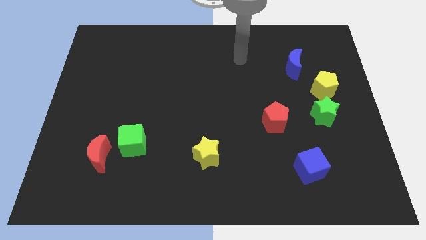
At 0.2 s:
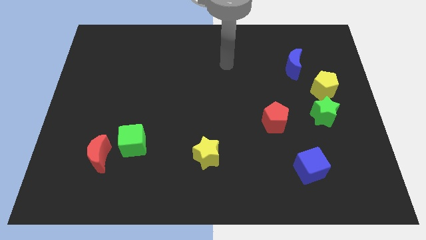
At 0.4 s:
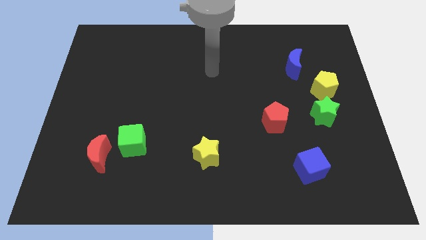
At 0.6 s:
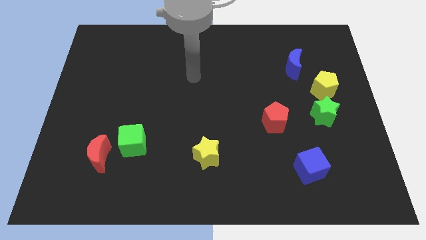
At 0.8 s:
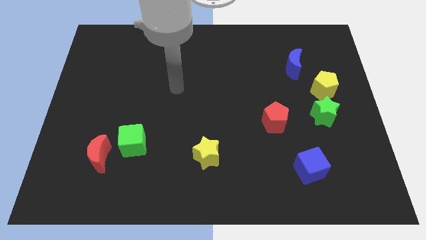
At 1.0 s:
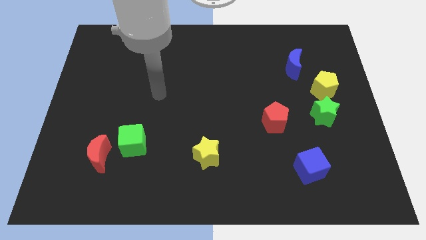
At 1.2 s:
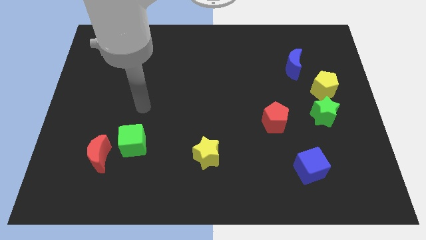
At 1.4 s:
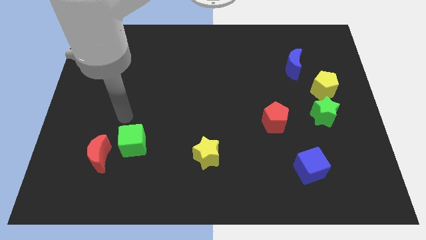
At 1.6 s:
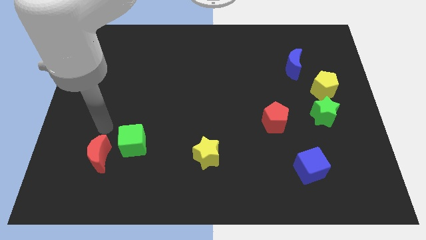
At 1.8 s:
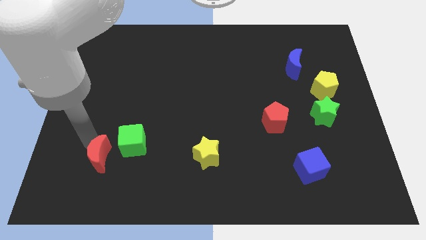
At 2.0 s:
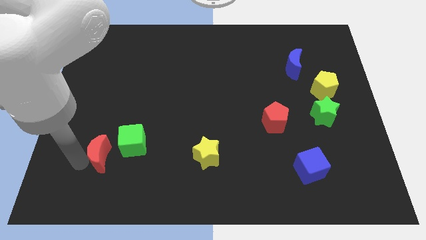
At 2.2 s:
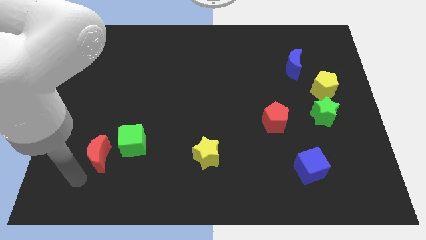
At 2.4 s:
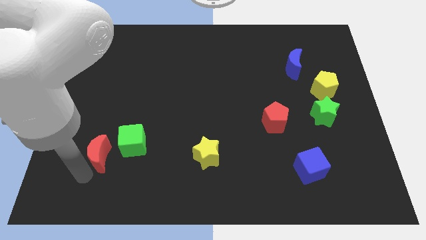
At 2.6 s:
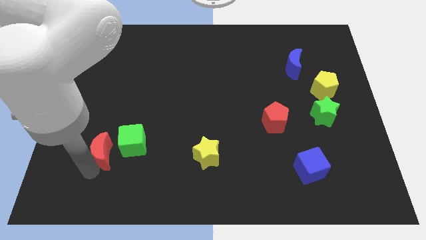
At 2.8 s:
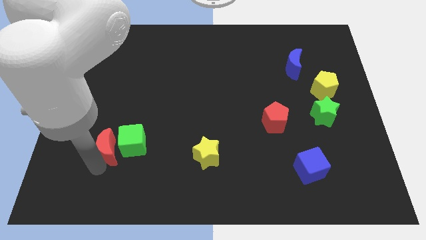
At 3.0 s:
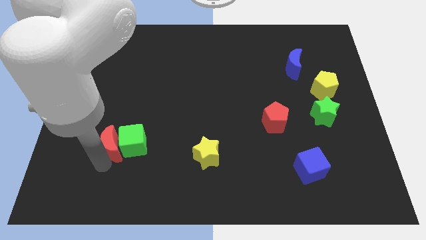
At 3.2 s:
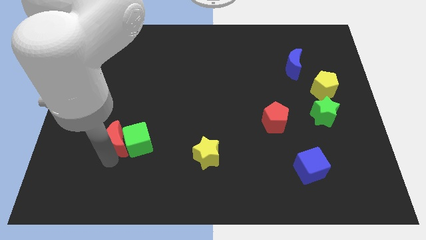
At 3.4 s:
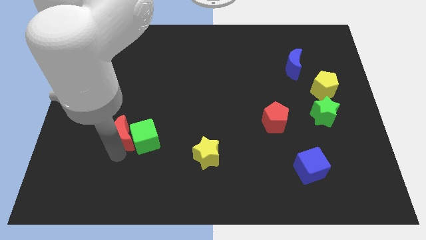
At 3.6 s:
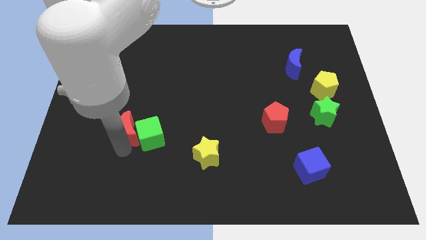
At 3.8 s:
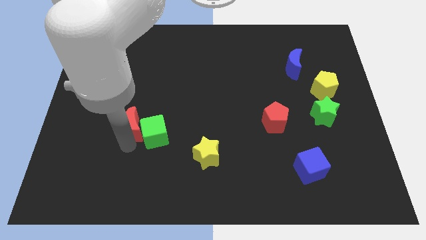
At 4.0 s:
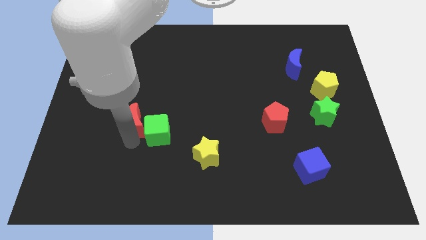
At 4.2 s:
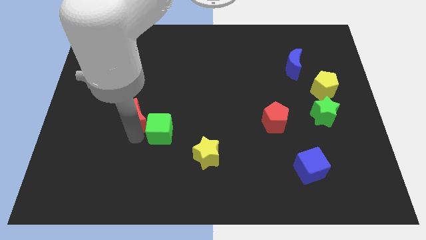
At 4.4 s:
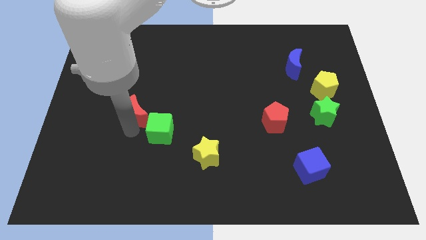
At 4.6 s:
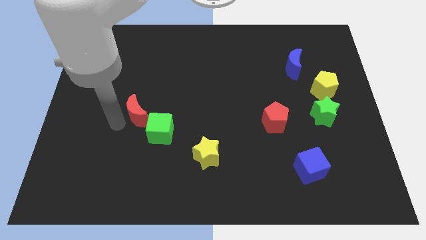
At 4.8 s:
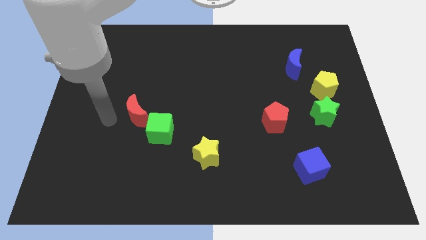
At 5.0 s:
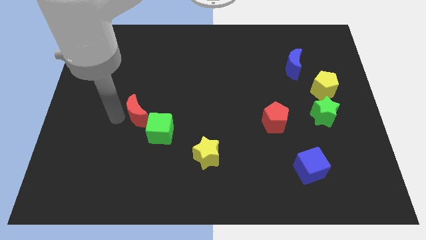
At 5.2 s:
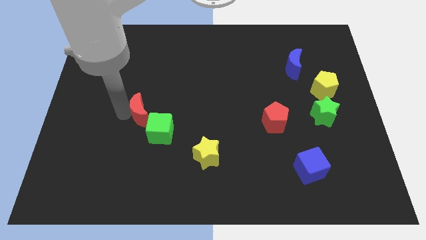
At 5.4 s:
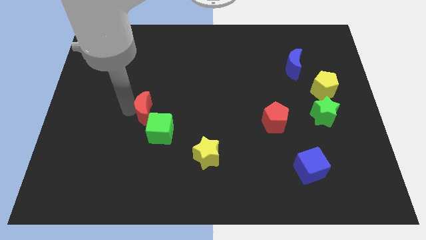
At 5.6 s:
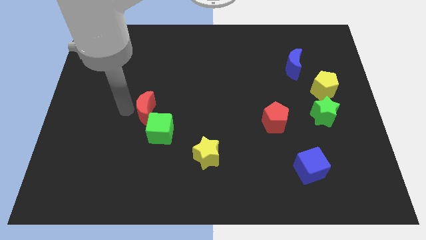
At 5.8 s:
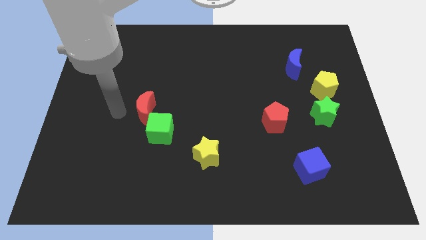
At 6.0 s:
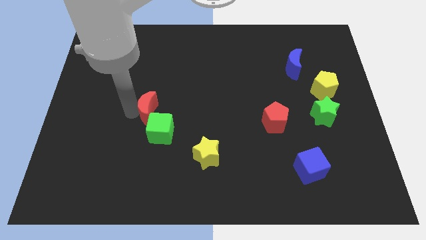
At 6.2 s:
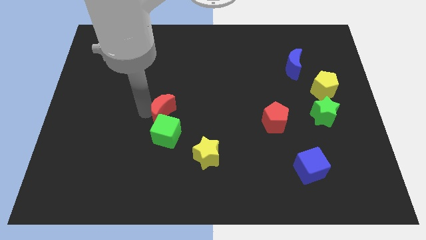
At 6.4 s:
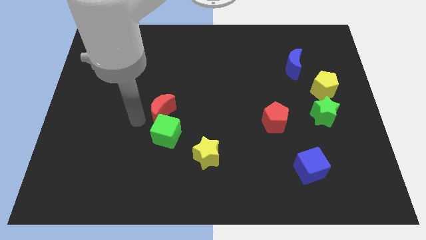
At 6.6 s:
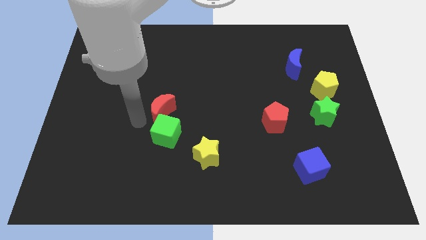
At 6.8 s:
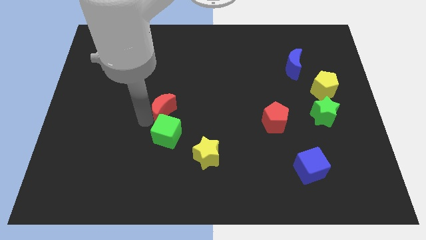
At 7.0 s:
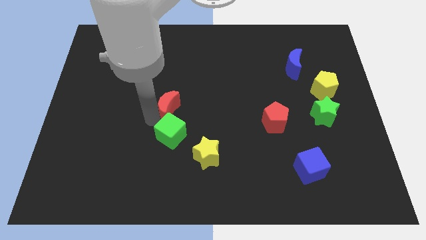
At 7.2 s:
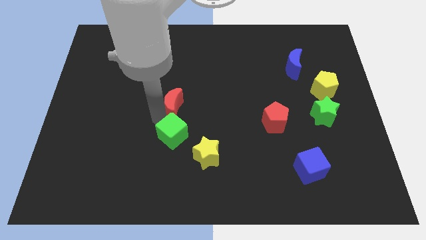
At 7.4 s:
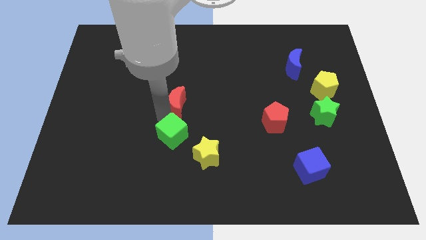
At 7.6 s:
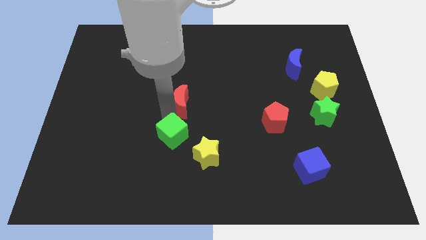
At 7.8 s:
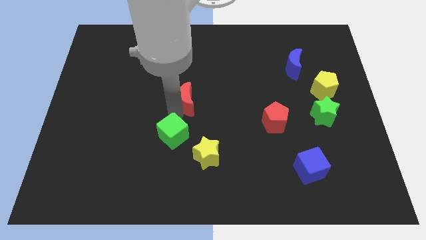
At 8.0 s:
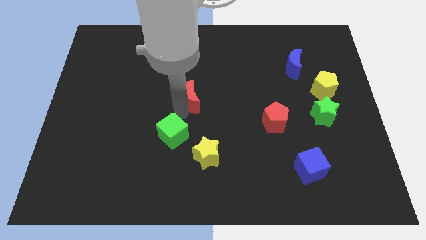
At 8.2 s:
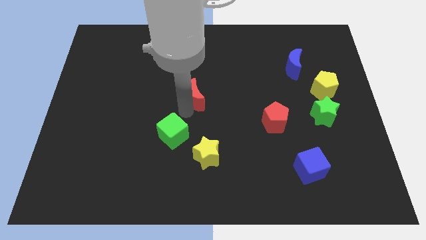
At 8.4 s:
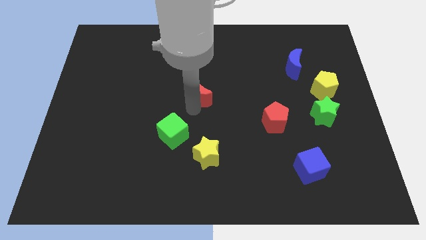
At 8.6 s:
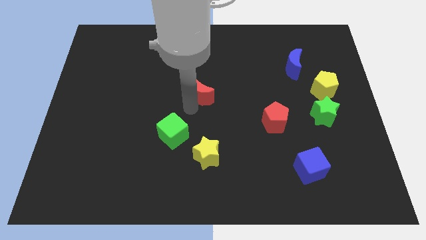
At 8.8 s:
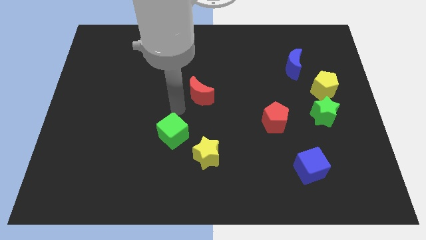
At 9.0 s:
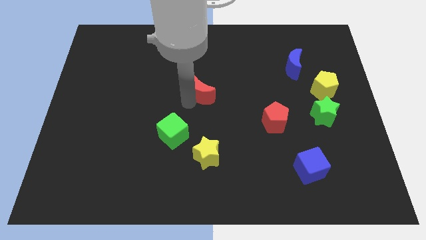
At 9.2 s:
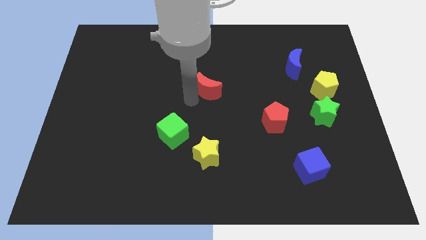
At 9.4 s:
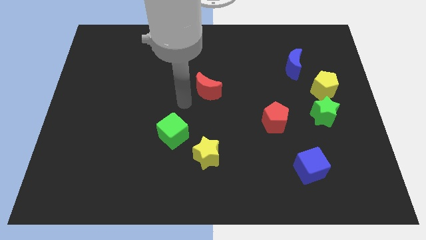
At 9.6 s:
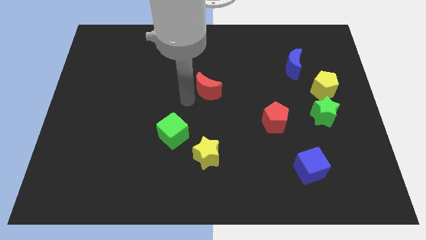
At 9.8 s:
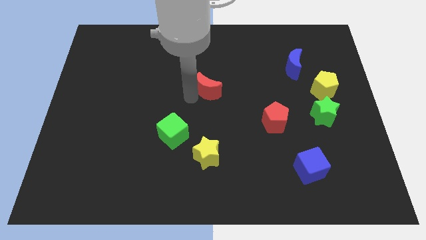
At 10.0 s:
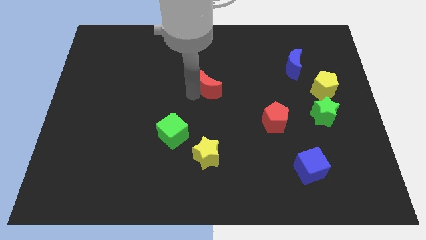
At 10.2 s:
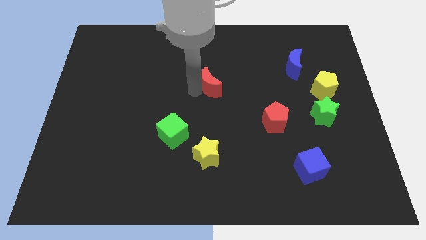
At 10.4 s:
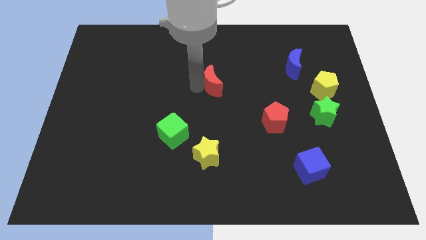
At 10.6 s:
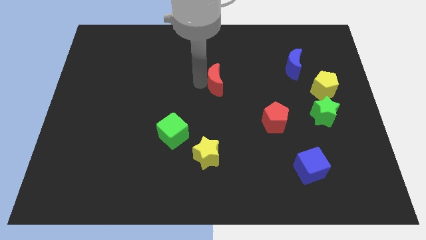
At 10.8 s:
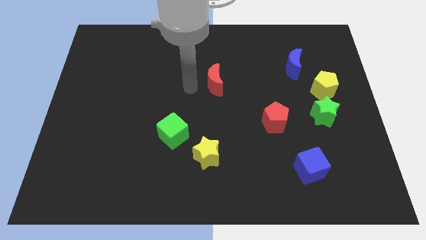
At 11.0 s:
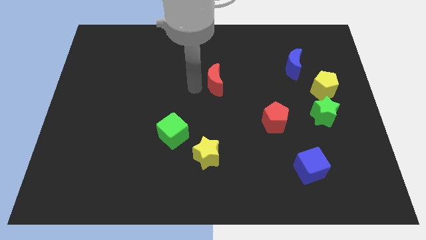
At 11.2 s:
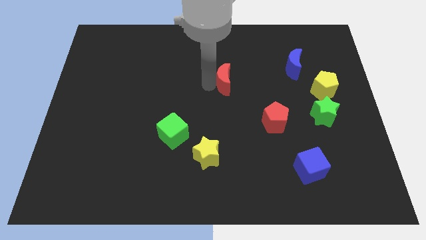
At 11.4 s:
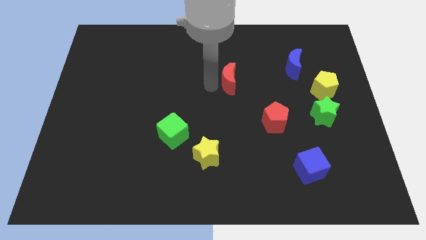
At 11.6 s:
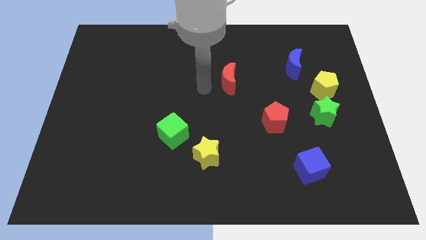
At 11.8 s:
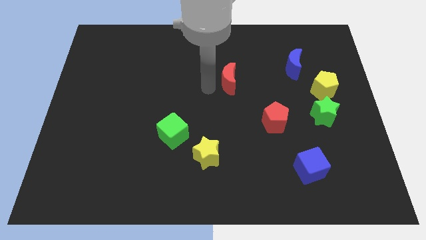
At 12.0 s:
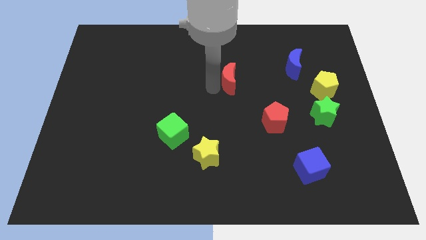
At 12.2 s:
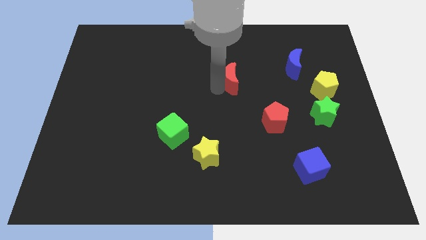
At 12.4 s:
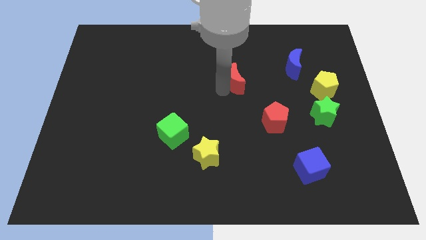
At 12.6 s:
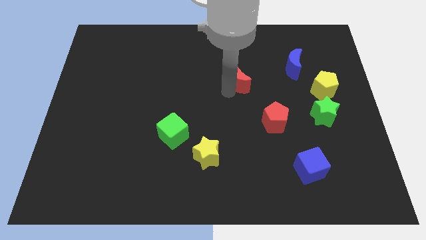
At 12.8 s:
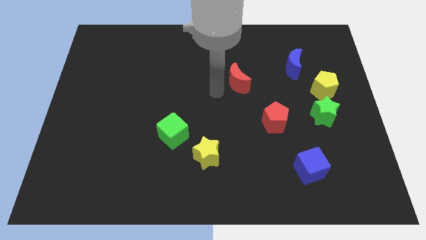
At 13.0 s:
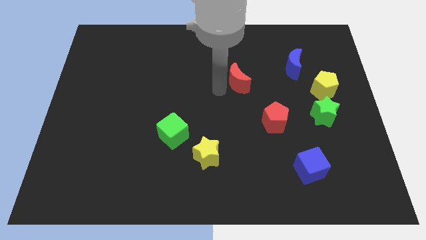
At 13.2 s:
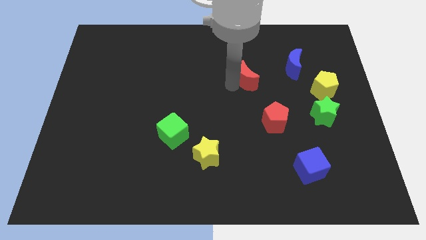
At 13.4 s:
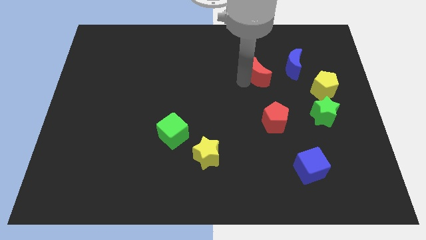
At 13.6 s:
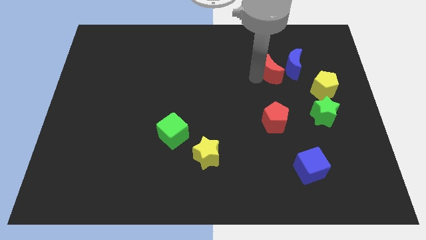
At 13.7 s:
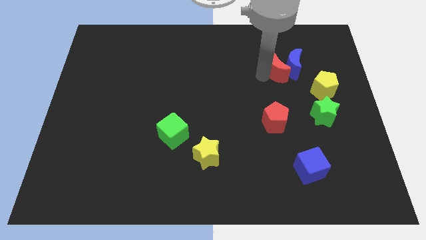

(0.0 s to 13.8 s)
slide the red moon to the blue moon

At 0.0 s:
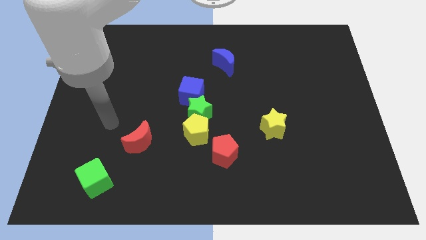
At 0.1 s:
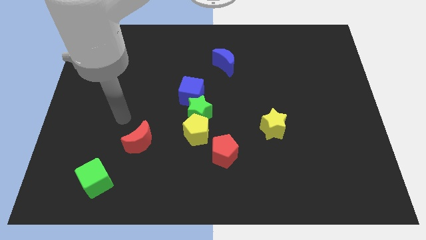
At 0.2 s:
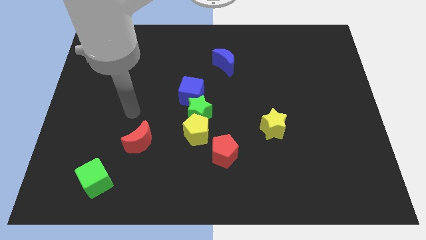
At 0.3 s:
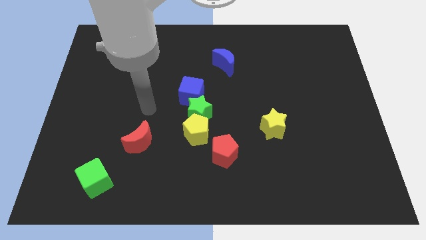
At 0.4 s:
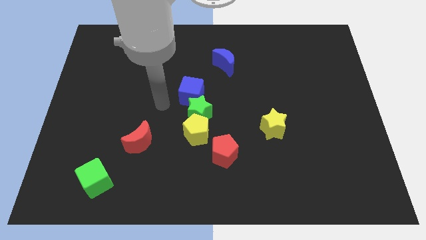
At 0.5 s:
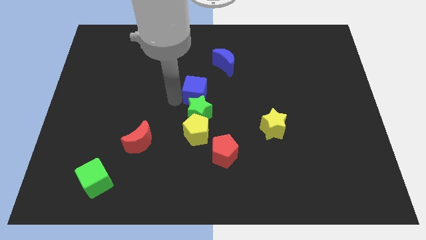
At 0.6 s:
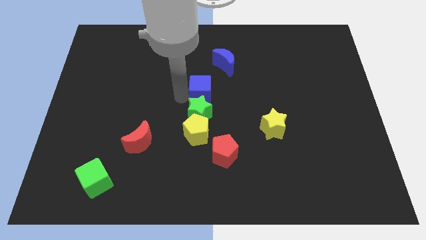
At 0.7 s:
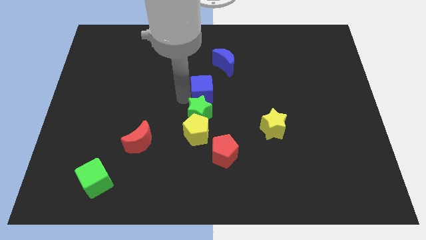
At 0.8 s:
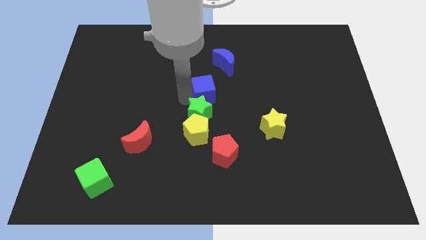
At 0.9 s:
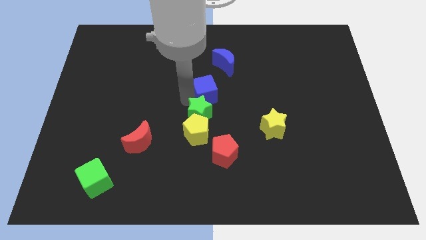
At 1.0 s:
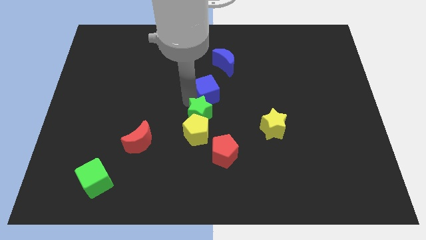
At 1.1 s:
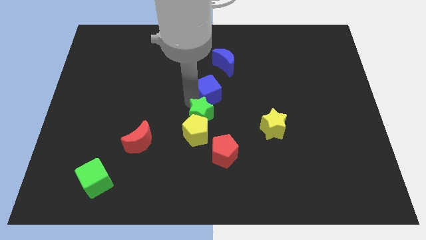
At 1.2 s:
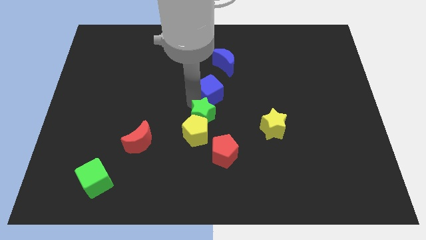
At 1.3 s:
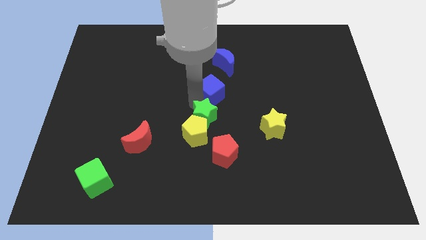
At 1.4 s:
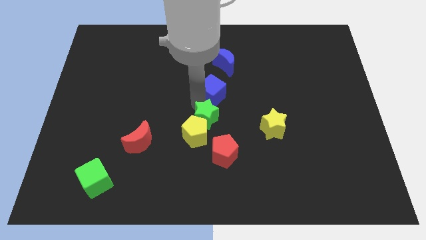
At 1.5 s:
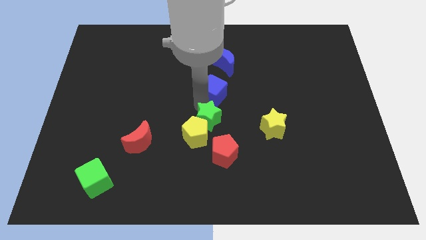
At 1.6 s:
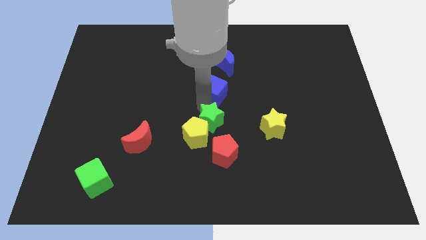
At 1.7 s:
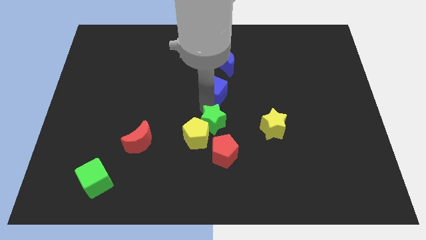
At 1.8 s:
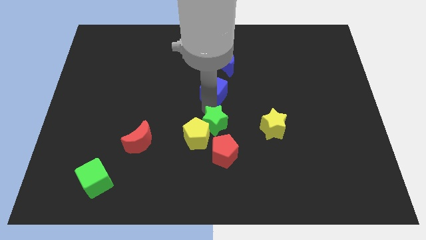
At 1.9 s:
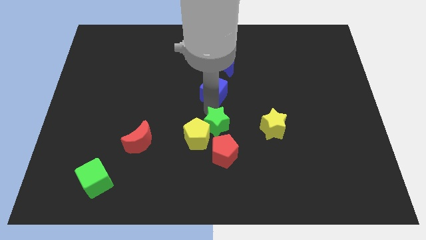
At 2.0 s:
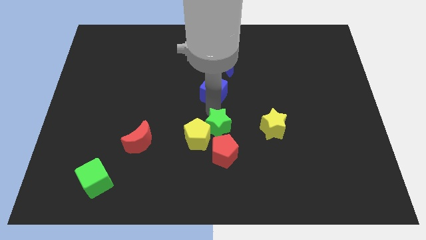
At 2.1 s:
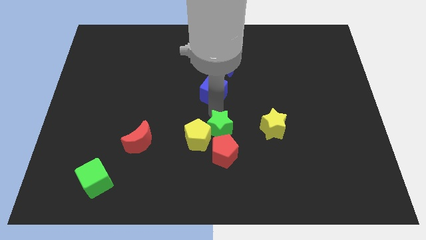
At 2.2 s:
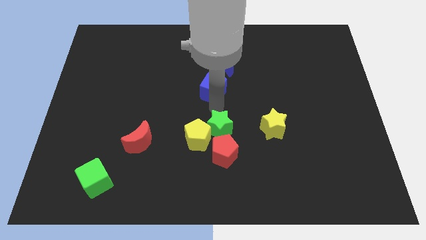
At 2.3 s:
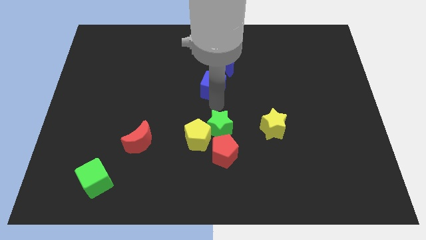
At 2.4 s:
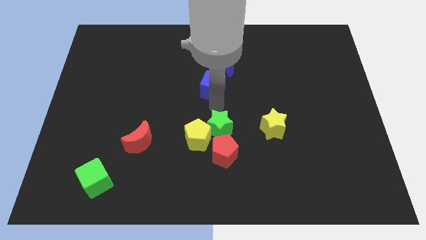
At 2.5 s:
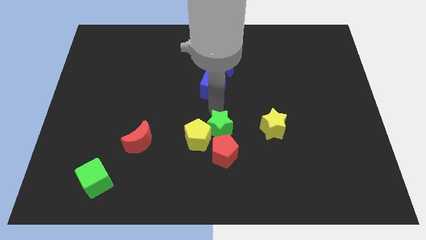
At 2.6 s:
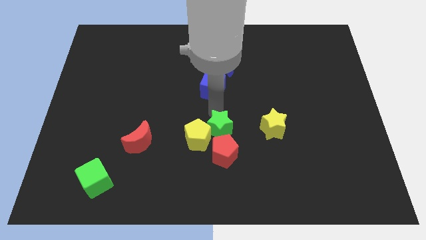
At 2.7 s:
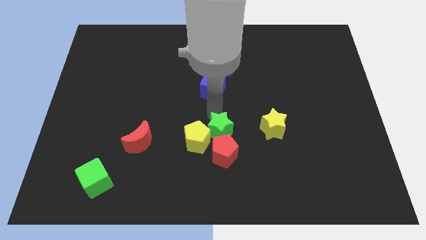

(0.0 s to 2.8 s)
put the green star next to the red pentagon
